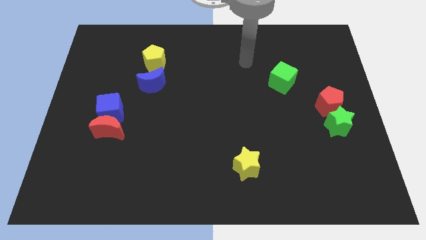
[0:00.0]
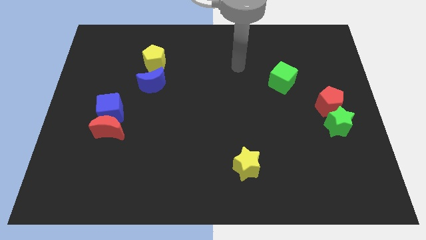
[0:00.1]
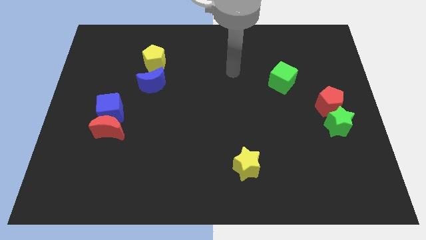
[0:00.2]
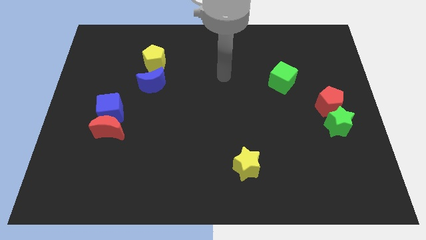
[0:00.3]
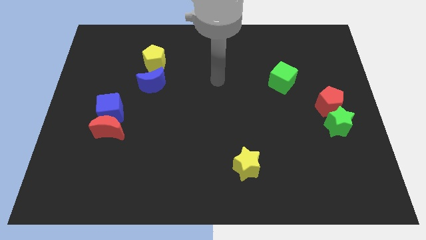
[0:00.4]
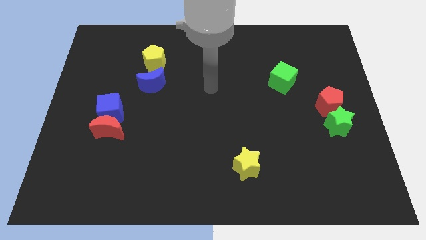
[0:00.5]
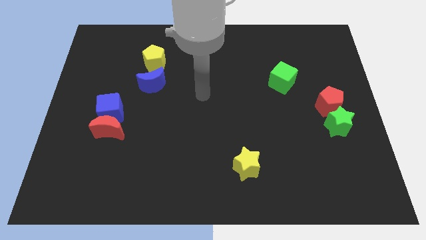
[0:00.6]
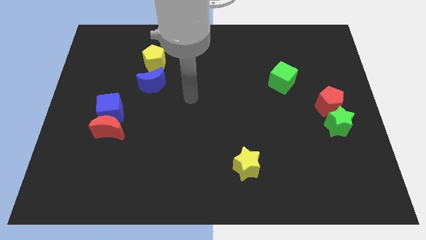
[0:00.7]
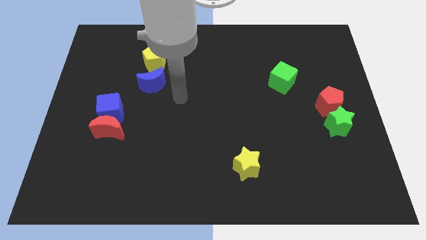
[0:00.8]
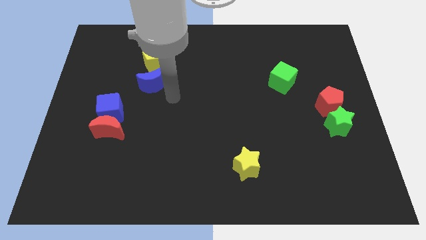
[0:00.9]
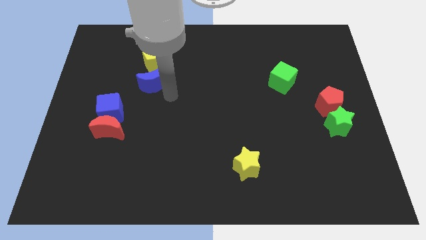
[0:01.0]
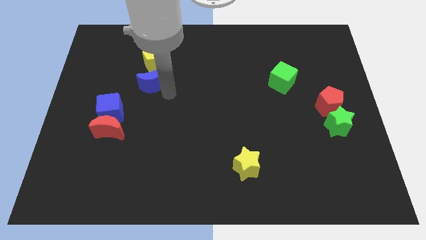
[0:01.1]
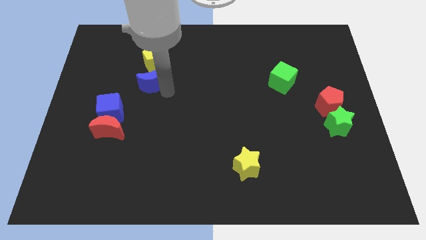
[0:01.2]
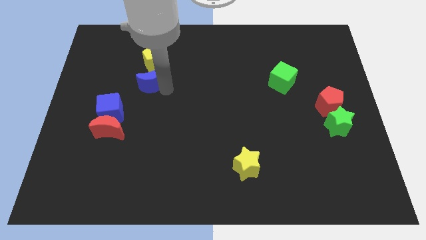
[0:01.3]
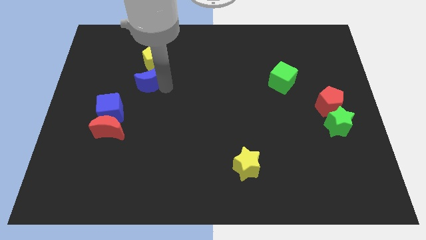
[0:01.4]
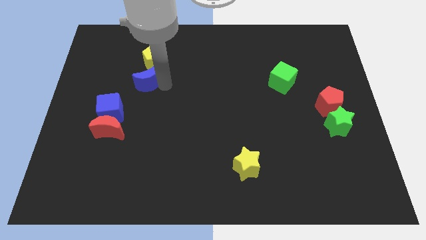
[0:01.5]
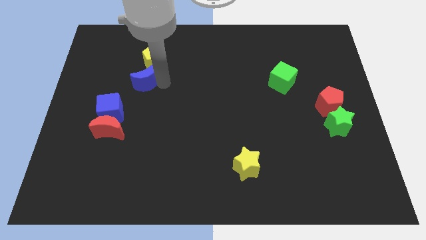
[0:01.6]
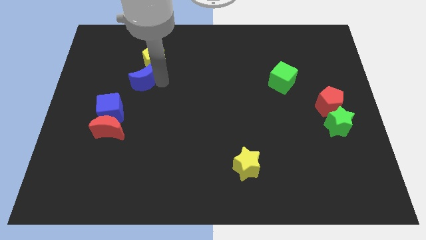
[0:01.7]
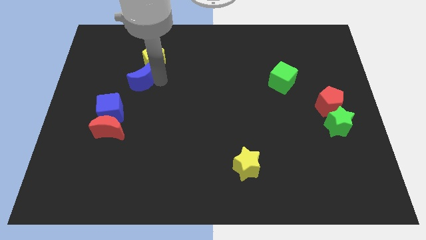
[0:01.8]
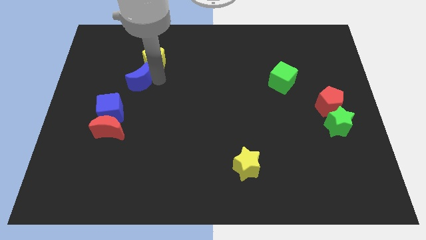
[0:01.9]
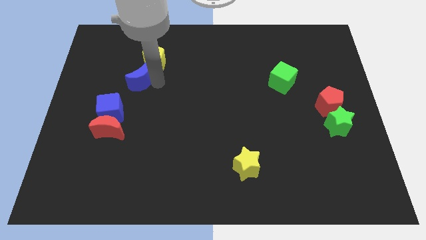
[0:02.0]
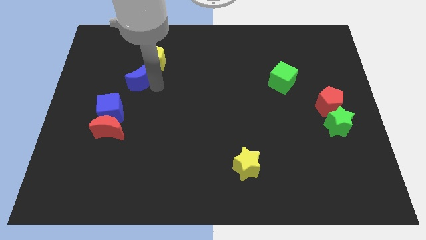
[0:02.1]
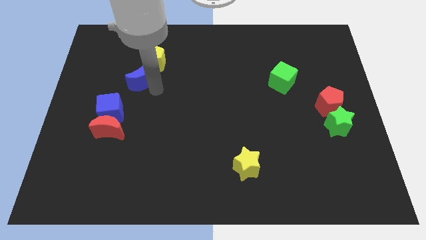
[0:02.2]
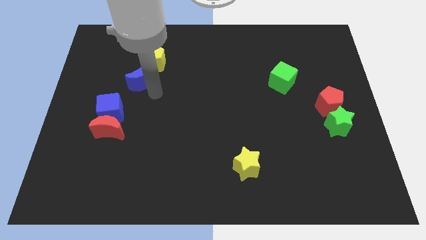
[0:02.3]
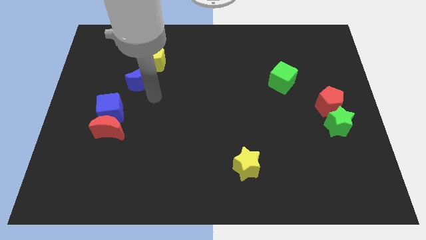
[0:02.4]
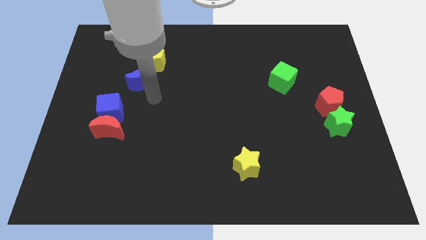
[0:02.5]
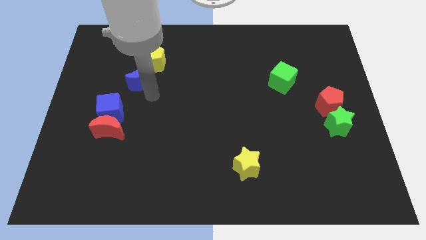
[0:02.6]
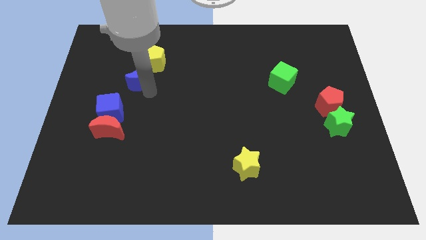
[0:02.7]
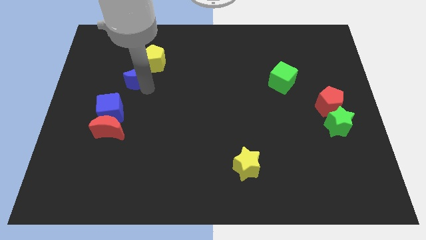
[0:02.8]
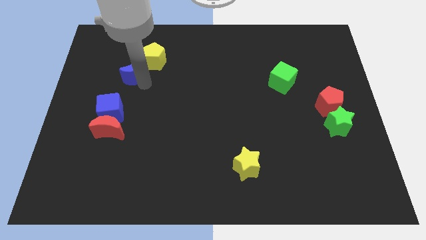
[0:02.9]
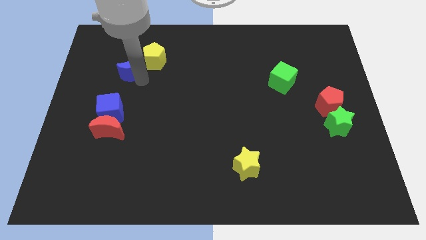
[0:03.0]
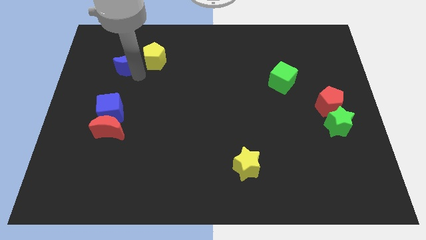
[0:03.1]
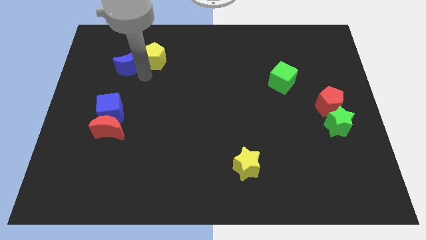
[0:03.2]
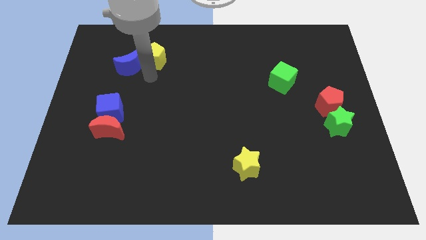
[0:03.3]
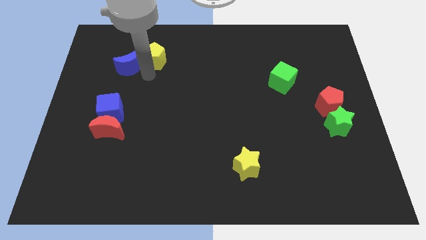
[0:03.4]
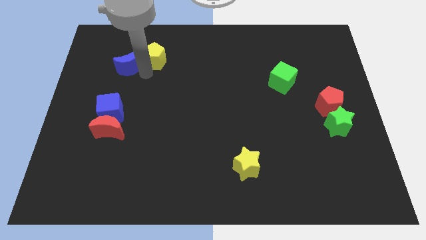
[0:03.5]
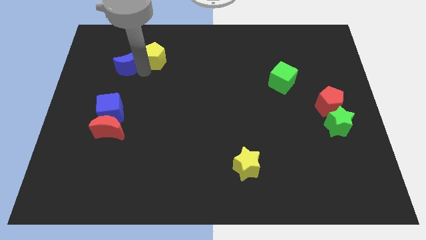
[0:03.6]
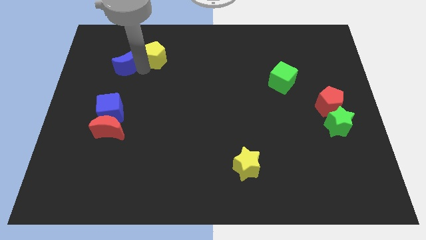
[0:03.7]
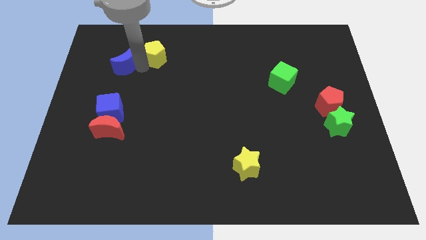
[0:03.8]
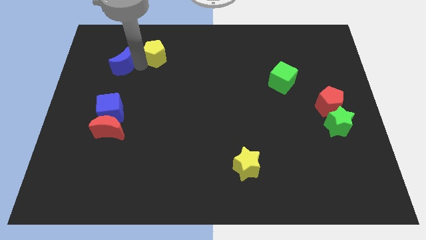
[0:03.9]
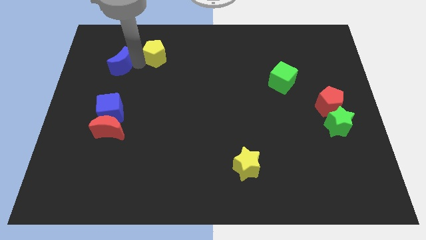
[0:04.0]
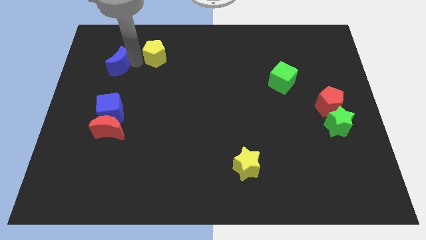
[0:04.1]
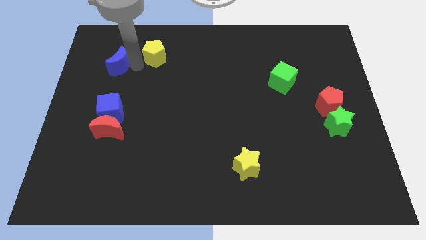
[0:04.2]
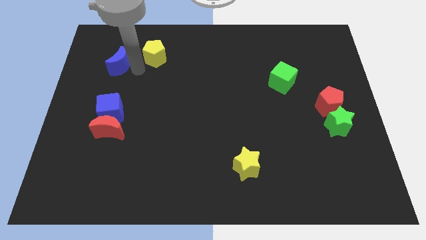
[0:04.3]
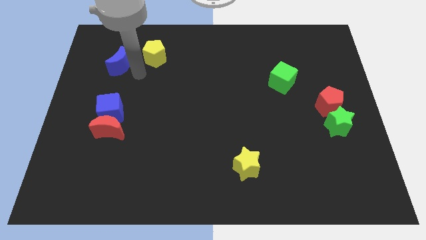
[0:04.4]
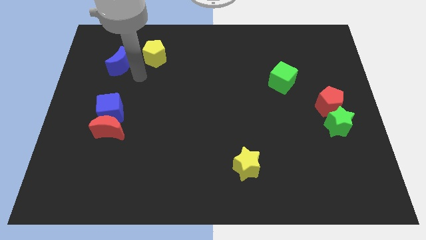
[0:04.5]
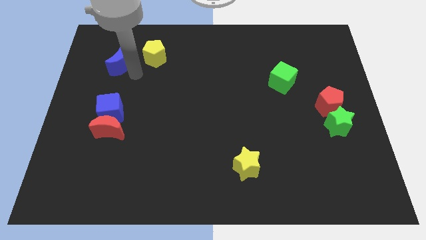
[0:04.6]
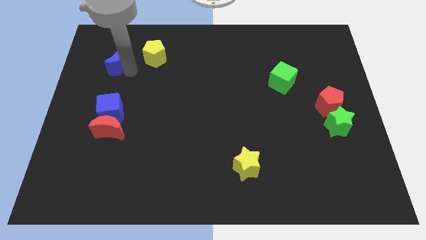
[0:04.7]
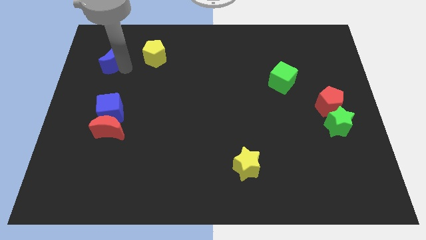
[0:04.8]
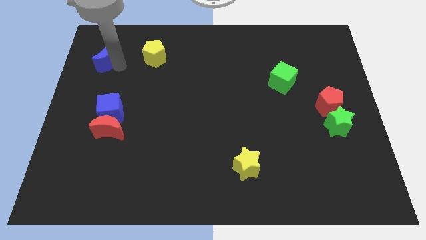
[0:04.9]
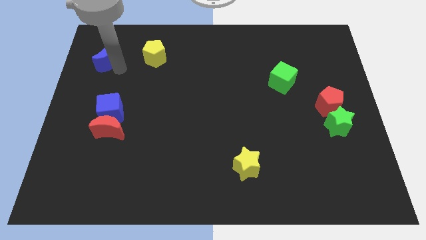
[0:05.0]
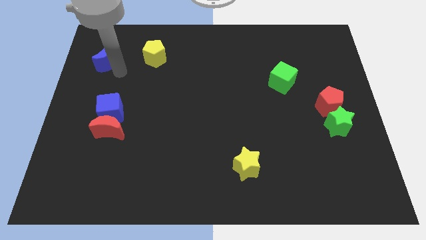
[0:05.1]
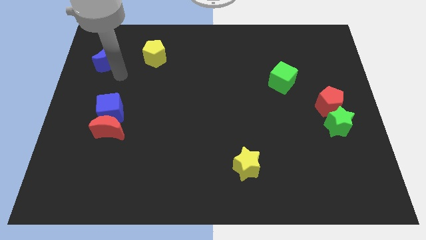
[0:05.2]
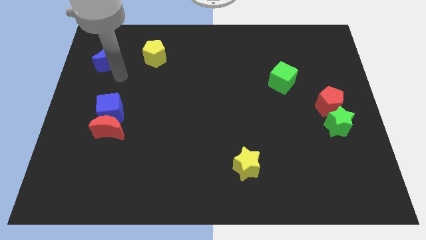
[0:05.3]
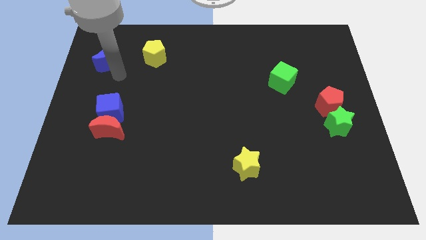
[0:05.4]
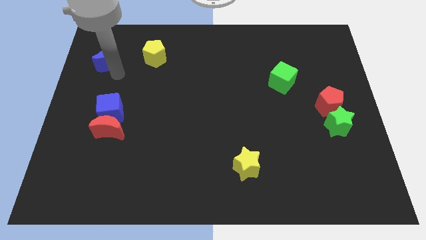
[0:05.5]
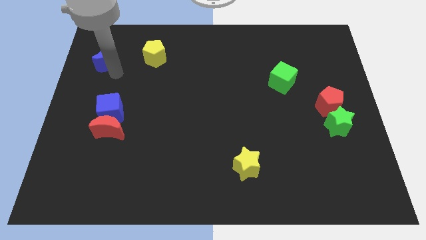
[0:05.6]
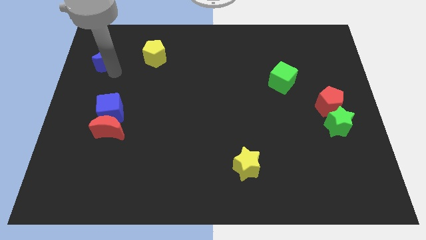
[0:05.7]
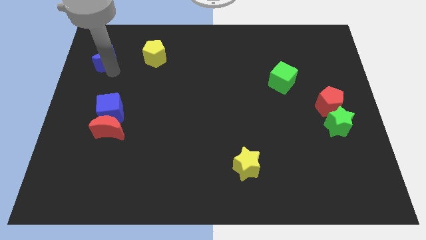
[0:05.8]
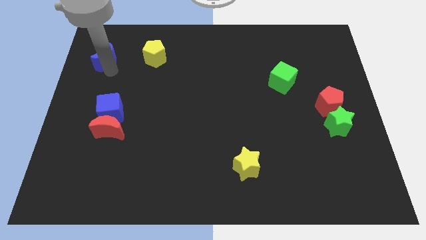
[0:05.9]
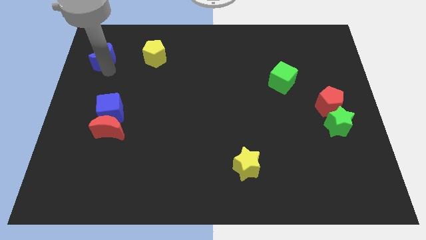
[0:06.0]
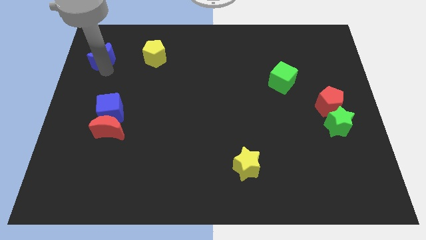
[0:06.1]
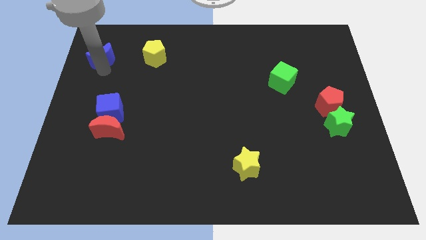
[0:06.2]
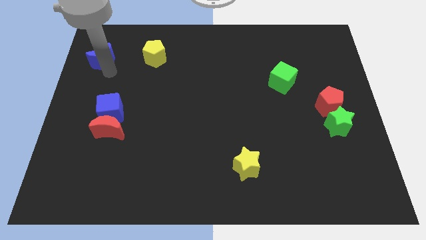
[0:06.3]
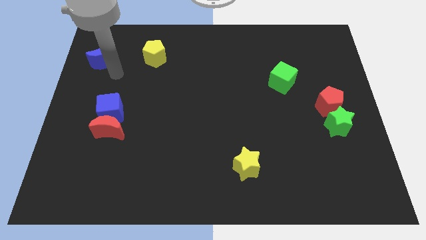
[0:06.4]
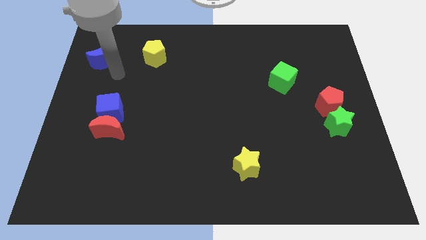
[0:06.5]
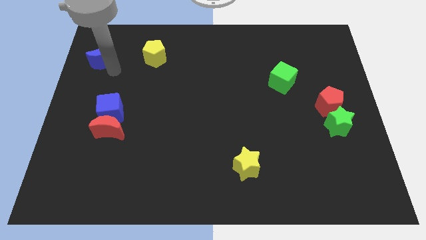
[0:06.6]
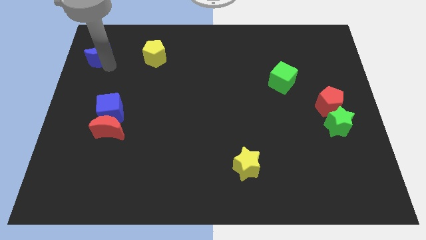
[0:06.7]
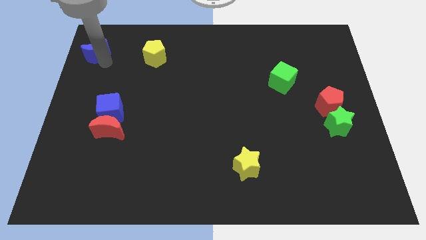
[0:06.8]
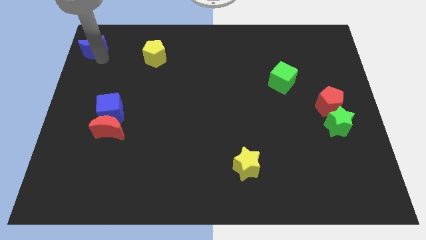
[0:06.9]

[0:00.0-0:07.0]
move the blue moon to the top left
